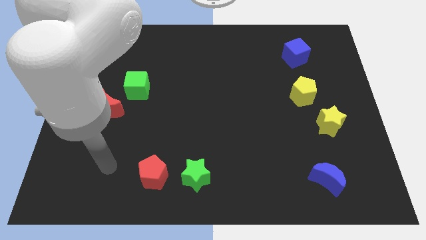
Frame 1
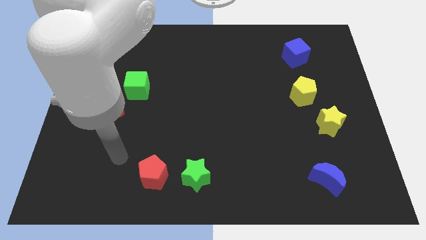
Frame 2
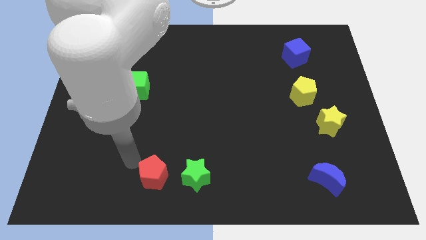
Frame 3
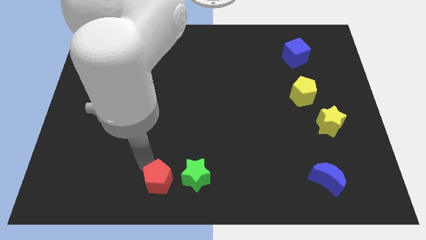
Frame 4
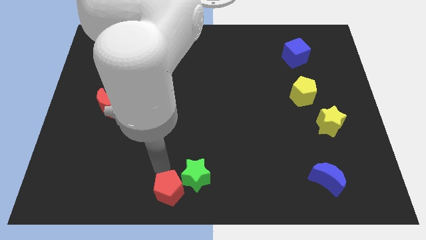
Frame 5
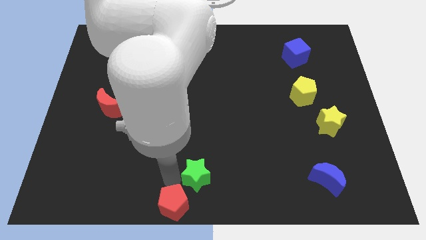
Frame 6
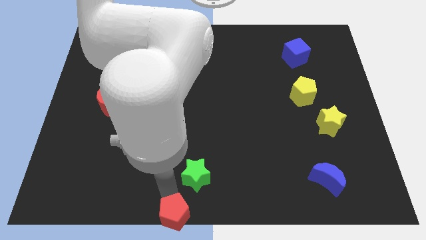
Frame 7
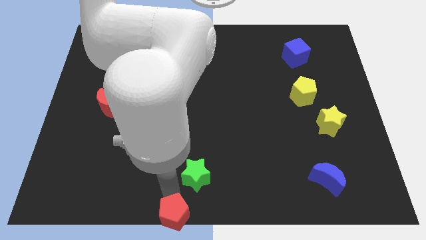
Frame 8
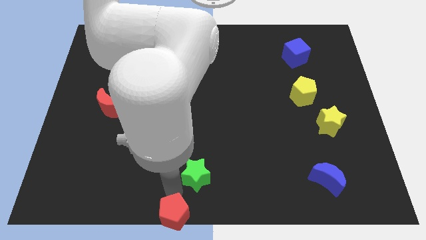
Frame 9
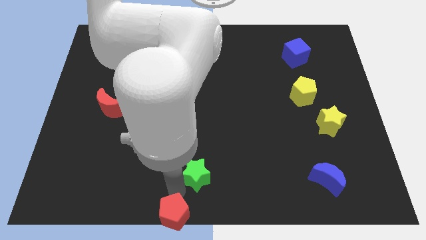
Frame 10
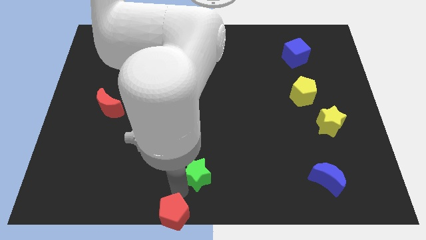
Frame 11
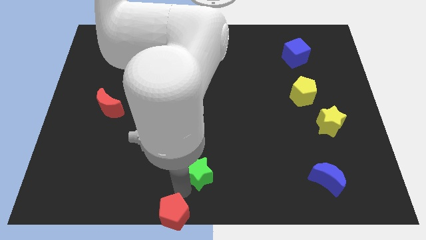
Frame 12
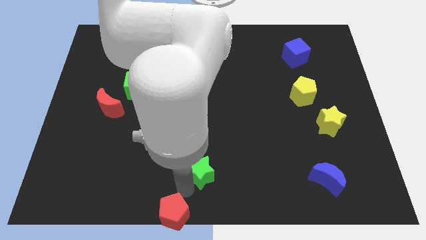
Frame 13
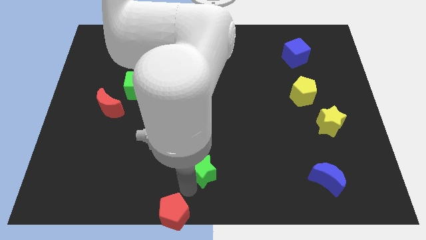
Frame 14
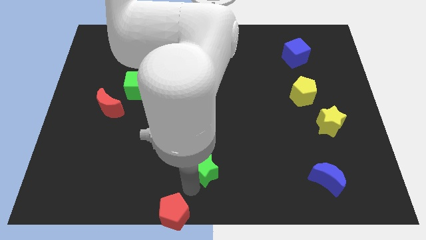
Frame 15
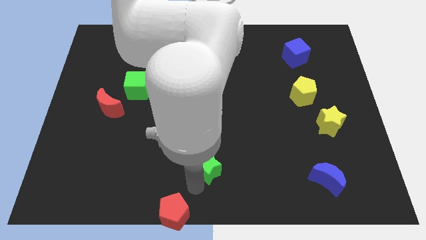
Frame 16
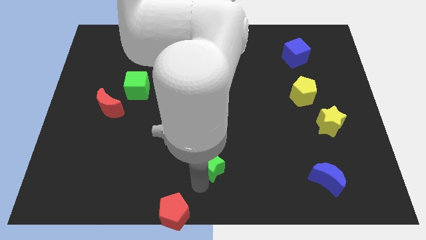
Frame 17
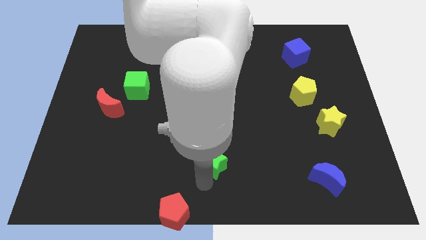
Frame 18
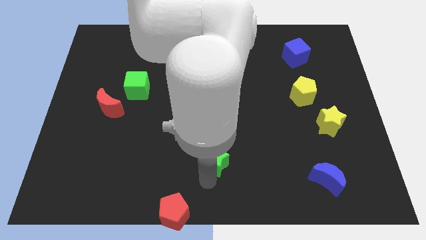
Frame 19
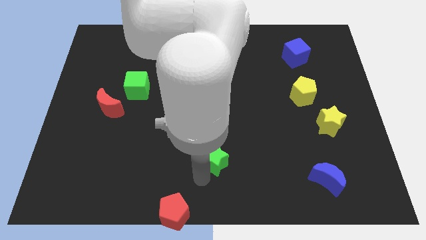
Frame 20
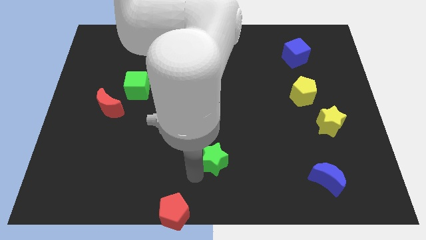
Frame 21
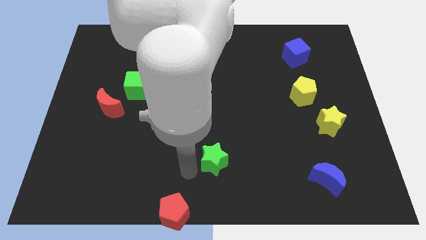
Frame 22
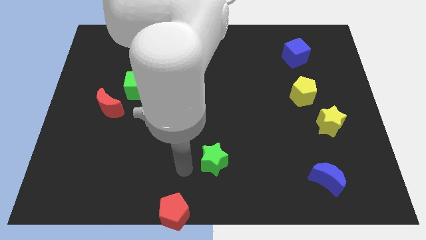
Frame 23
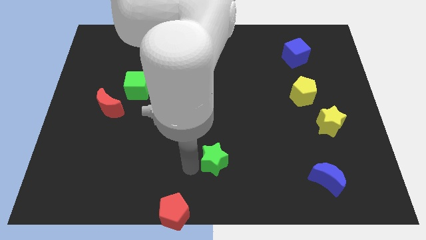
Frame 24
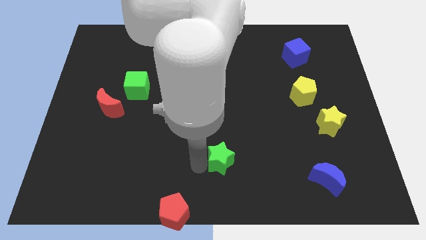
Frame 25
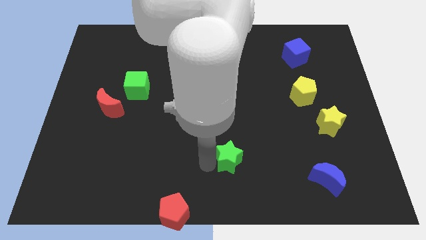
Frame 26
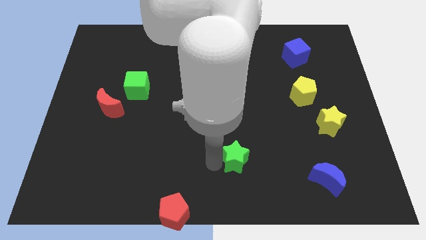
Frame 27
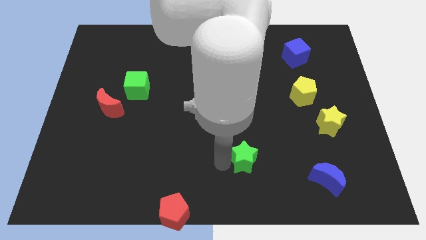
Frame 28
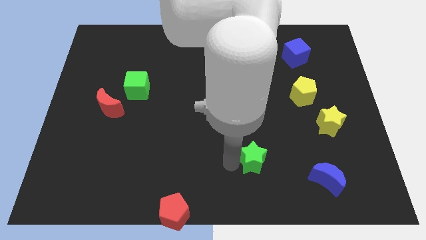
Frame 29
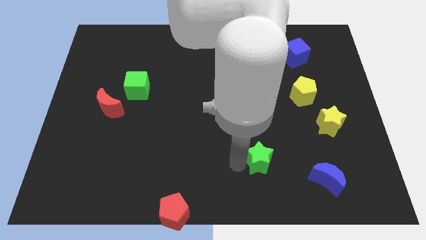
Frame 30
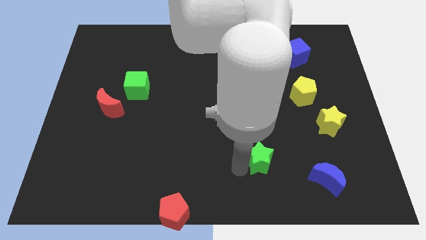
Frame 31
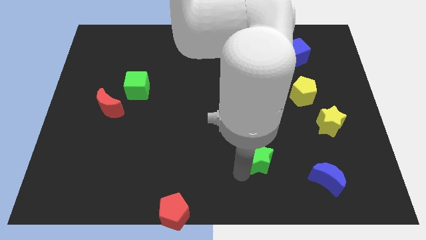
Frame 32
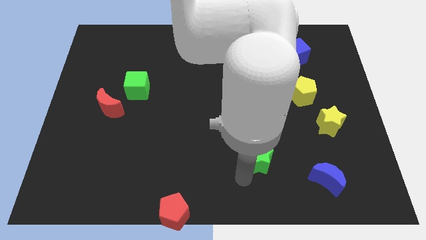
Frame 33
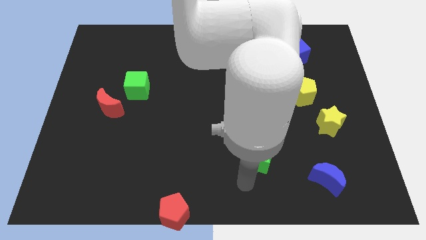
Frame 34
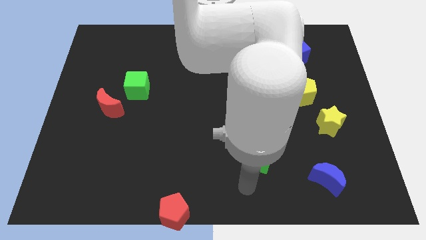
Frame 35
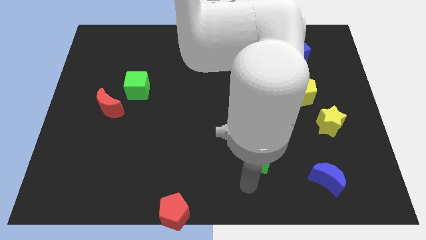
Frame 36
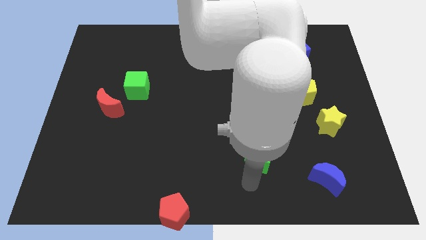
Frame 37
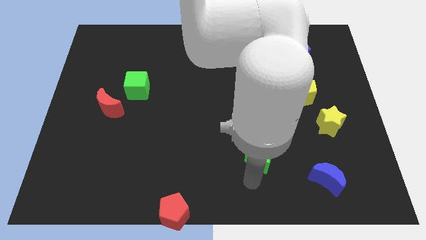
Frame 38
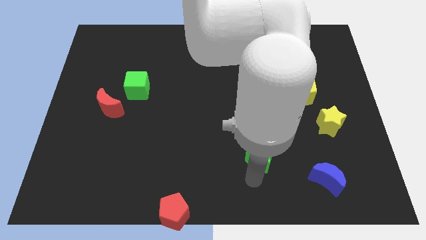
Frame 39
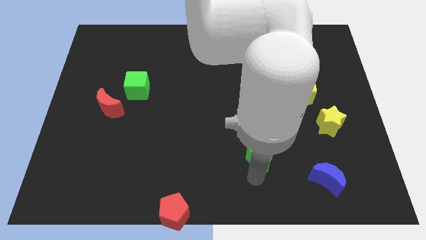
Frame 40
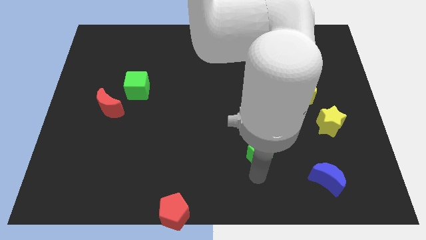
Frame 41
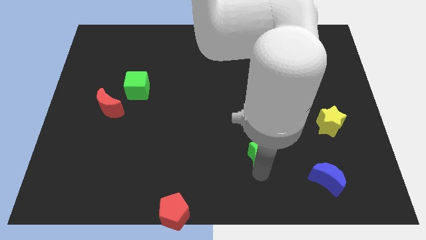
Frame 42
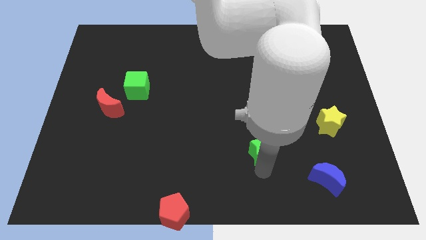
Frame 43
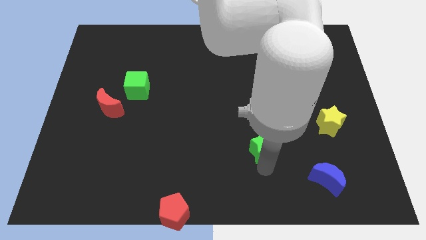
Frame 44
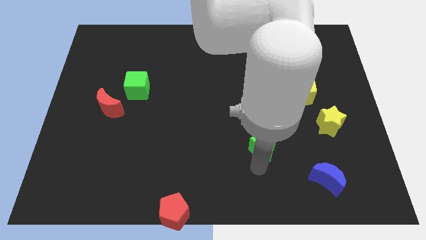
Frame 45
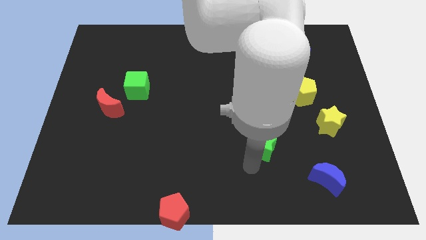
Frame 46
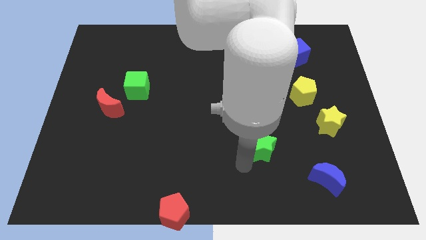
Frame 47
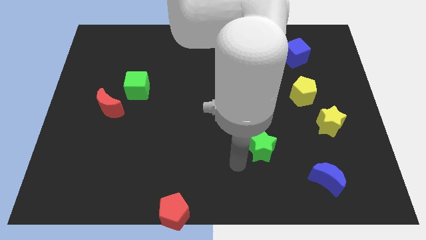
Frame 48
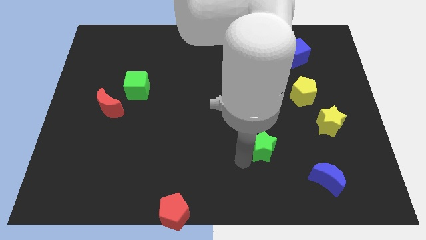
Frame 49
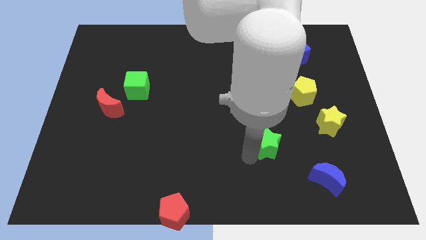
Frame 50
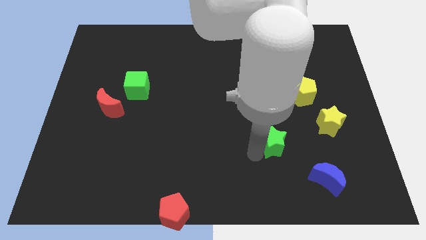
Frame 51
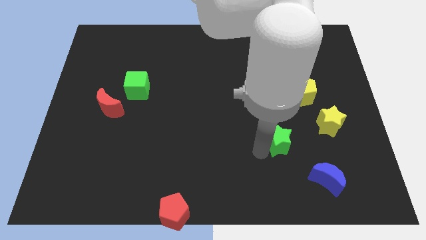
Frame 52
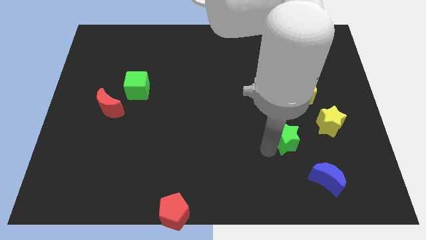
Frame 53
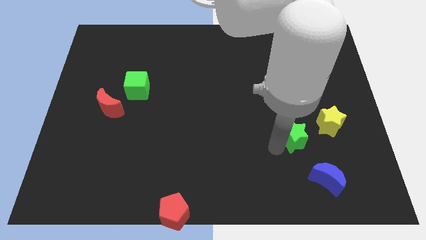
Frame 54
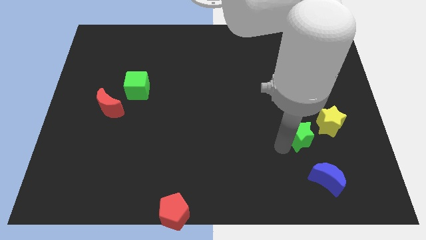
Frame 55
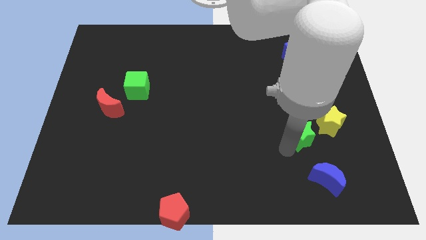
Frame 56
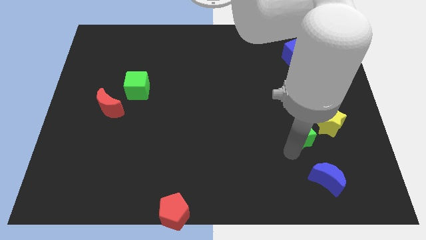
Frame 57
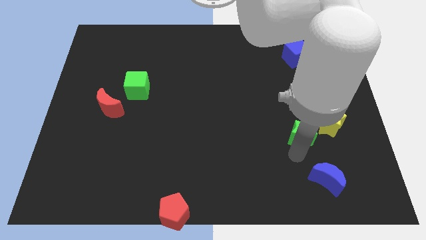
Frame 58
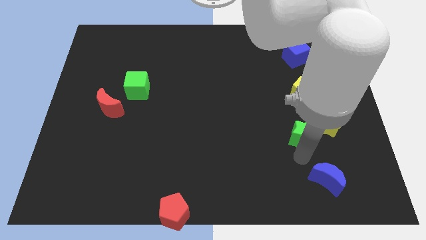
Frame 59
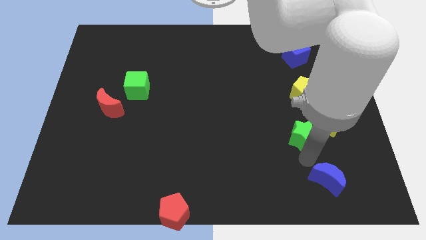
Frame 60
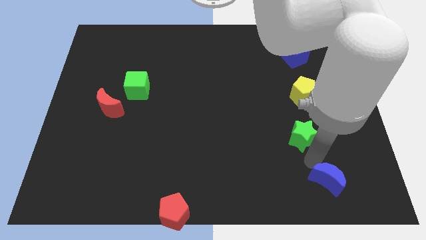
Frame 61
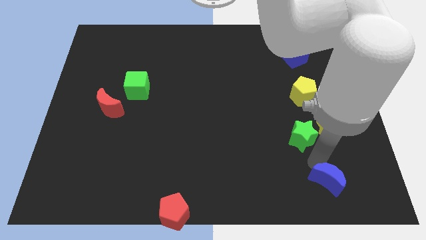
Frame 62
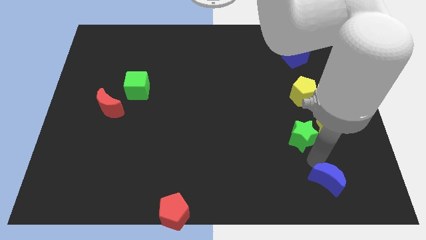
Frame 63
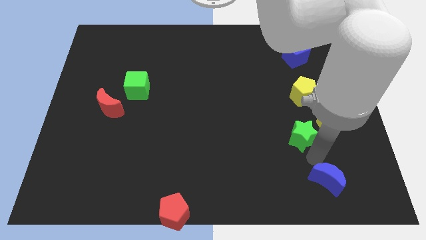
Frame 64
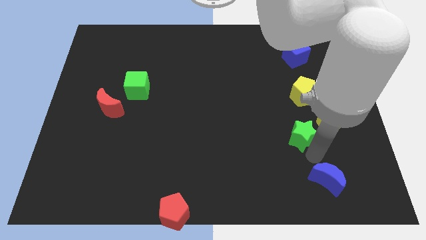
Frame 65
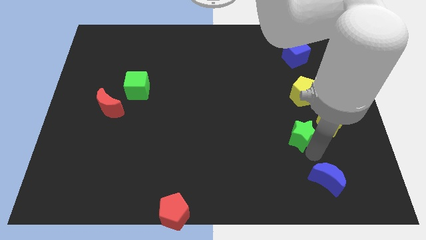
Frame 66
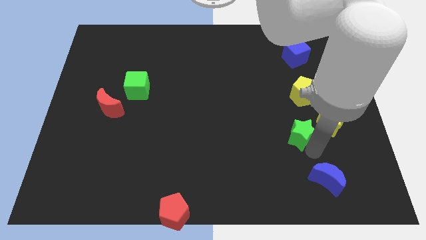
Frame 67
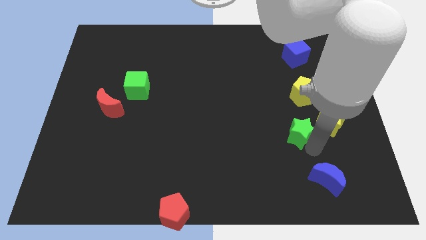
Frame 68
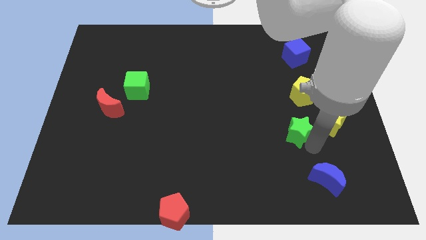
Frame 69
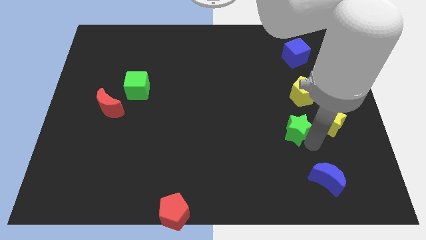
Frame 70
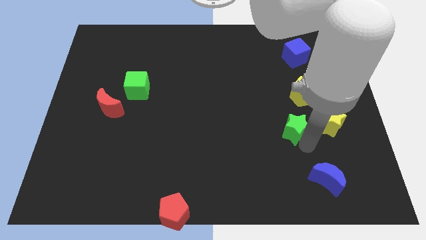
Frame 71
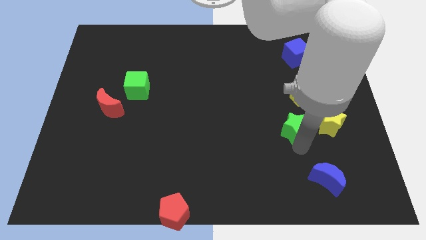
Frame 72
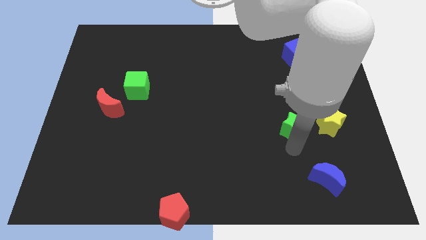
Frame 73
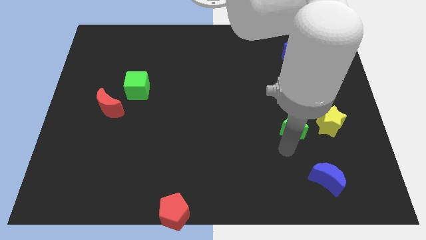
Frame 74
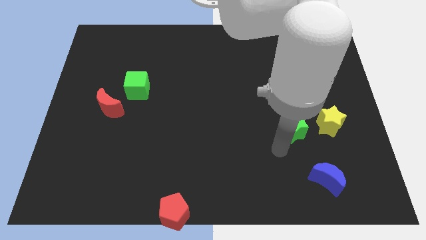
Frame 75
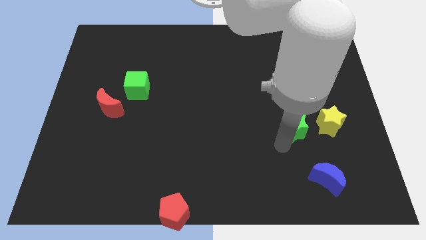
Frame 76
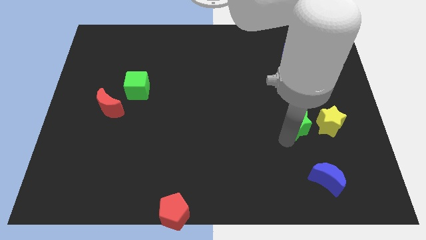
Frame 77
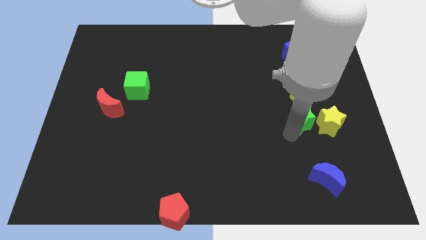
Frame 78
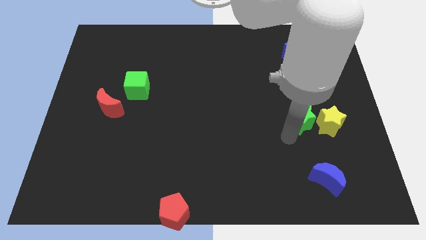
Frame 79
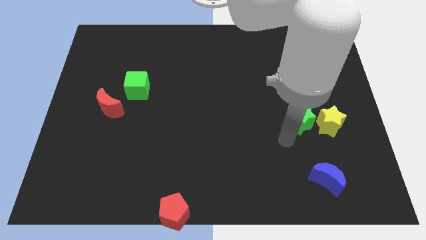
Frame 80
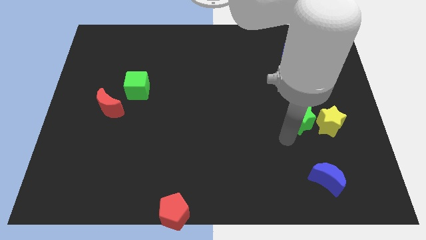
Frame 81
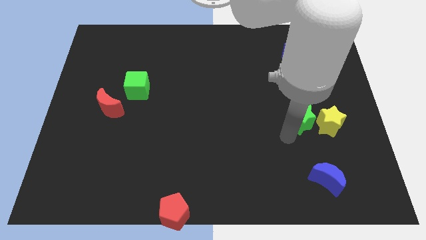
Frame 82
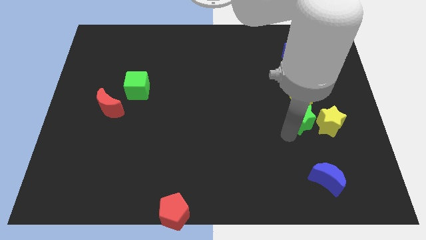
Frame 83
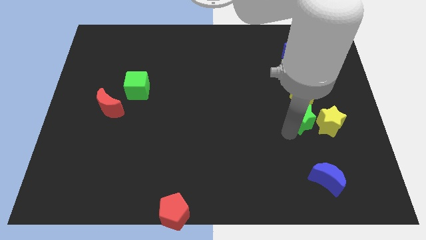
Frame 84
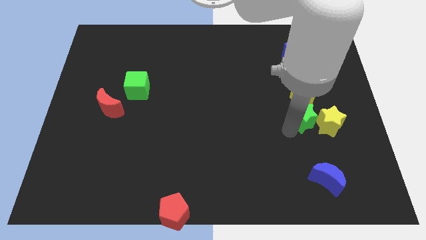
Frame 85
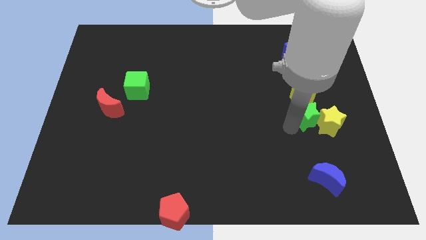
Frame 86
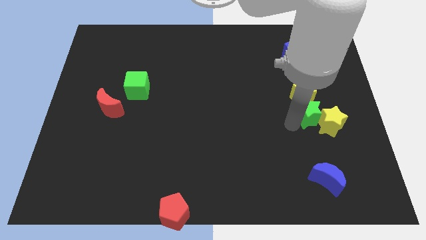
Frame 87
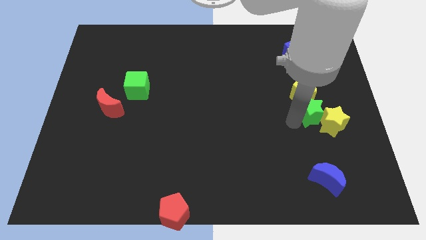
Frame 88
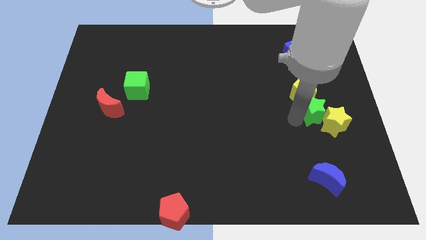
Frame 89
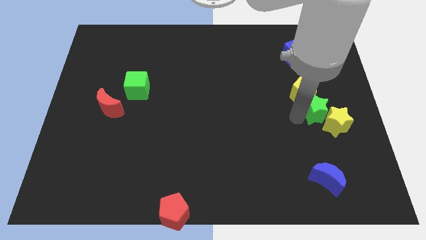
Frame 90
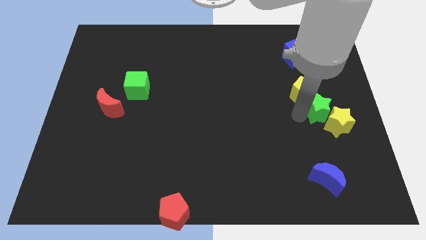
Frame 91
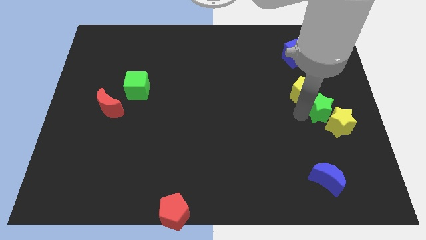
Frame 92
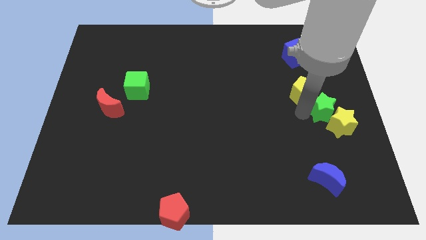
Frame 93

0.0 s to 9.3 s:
move the green star to the right side of the board
